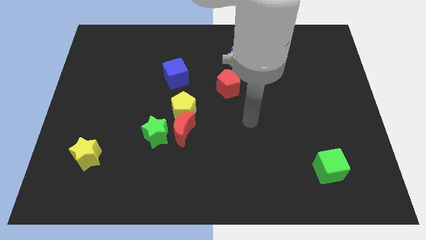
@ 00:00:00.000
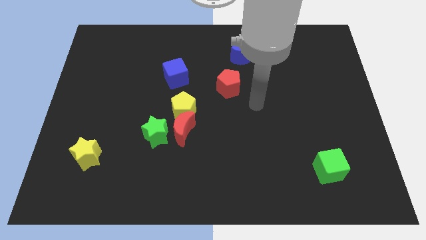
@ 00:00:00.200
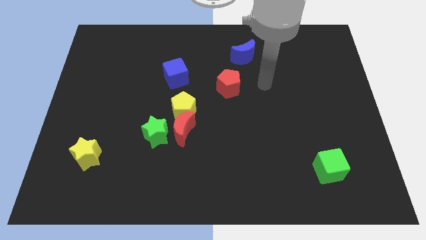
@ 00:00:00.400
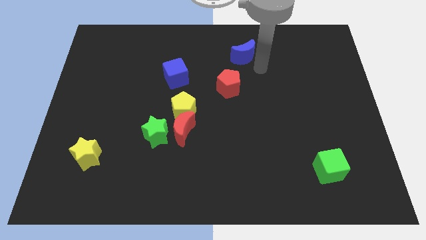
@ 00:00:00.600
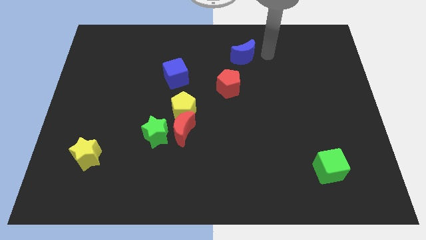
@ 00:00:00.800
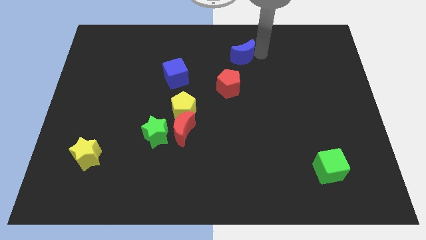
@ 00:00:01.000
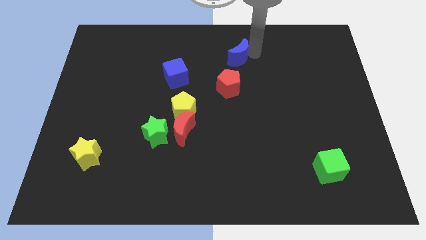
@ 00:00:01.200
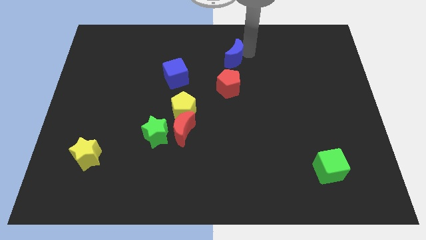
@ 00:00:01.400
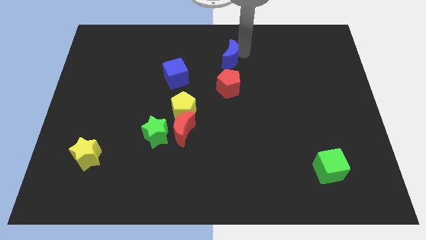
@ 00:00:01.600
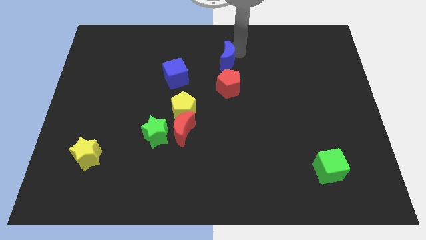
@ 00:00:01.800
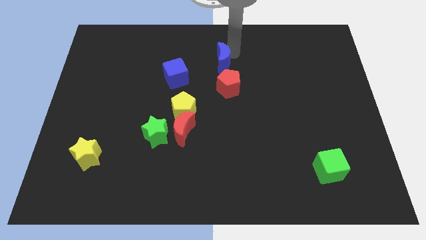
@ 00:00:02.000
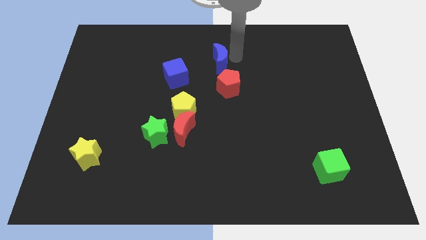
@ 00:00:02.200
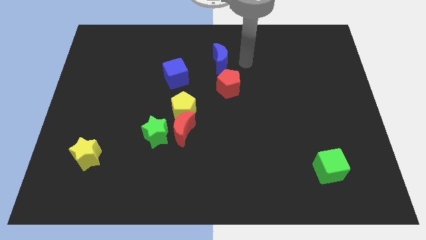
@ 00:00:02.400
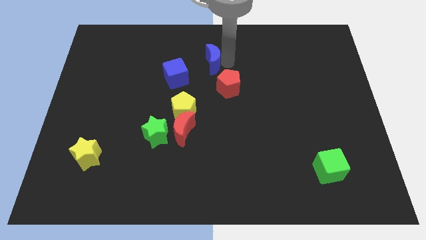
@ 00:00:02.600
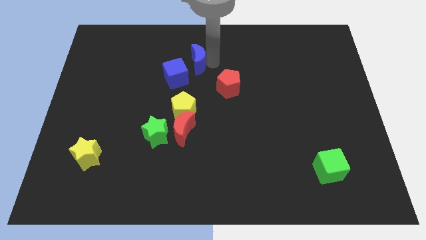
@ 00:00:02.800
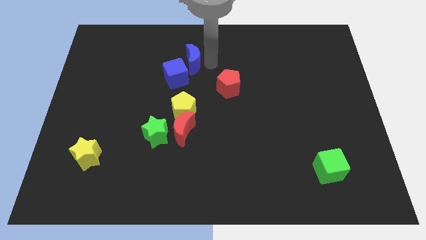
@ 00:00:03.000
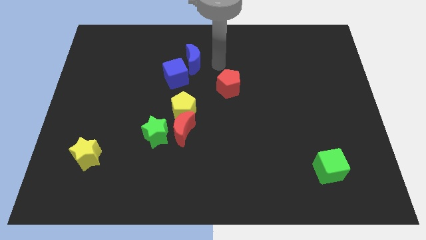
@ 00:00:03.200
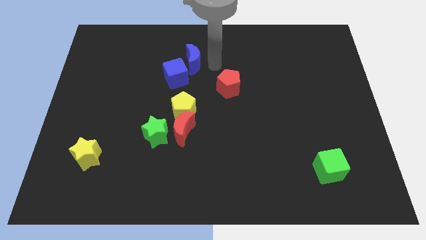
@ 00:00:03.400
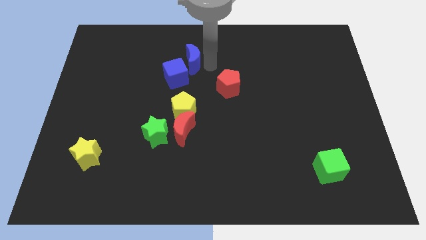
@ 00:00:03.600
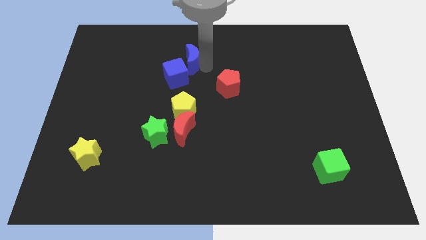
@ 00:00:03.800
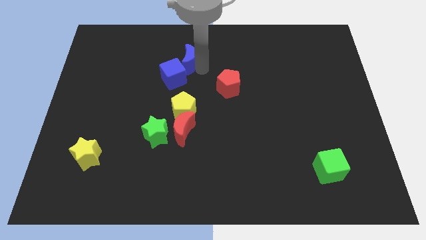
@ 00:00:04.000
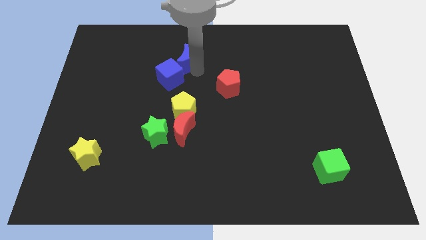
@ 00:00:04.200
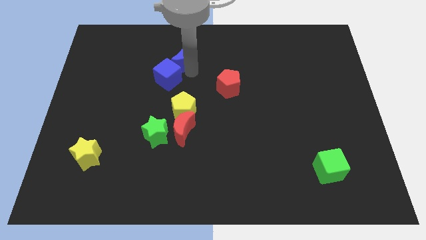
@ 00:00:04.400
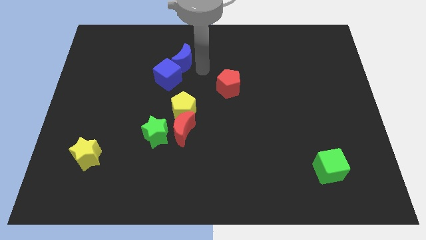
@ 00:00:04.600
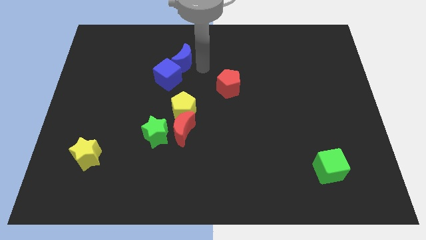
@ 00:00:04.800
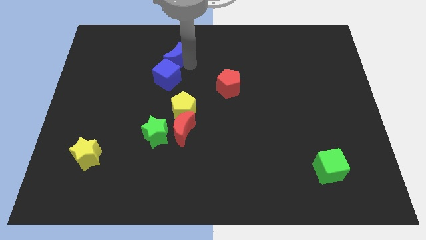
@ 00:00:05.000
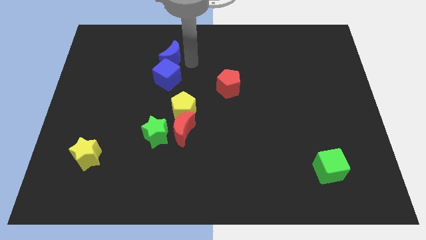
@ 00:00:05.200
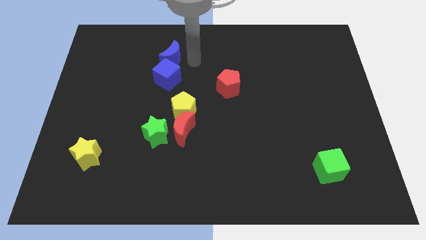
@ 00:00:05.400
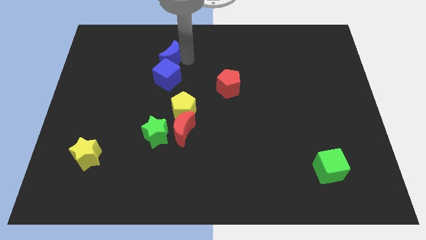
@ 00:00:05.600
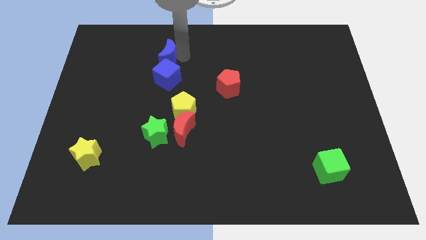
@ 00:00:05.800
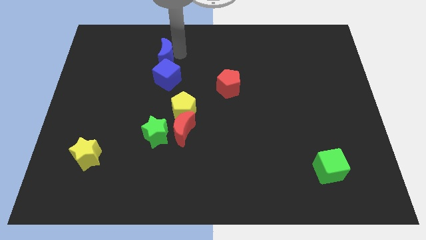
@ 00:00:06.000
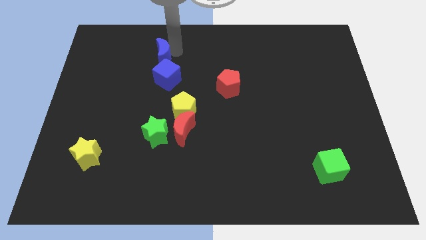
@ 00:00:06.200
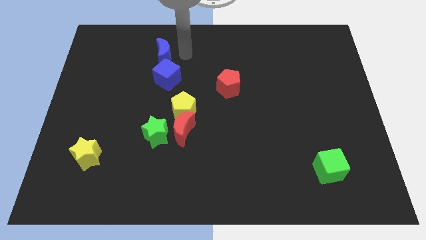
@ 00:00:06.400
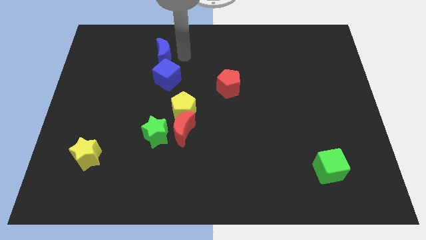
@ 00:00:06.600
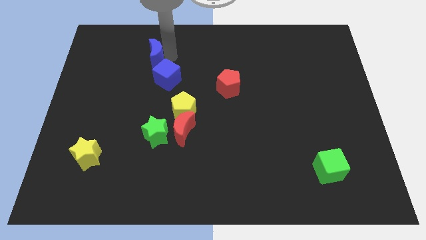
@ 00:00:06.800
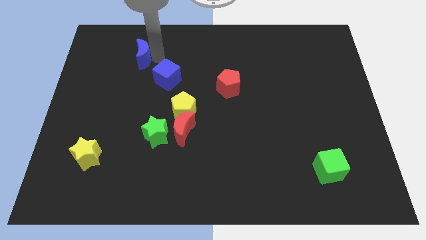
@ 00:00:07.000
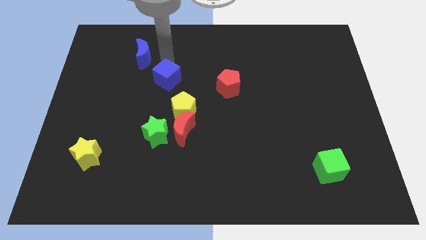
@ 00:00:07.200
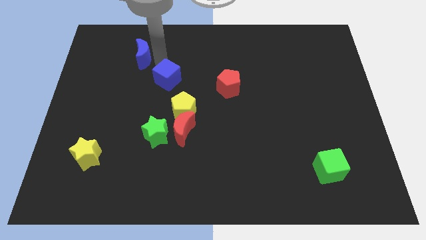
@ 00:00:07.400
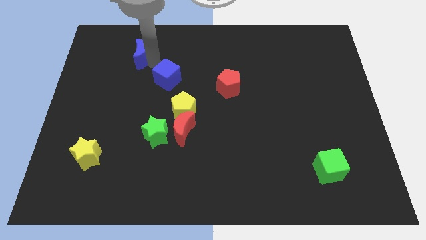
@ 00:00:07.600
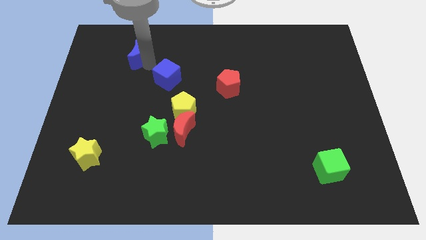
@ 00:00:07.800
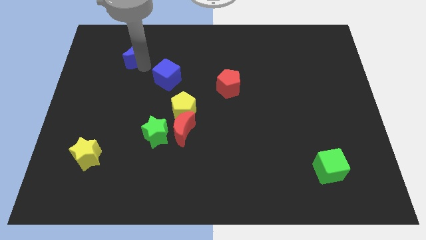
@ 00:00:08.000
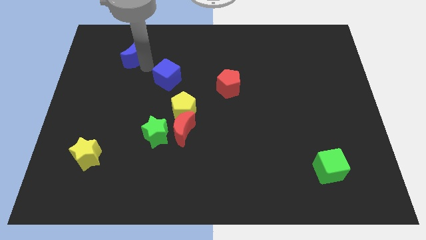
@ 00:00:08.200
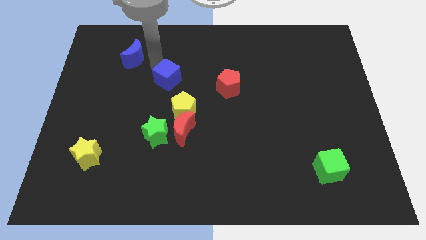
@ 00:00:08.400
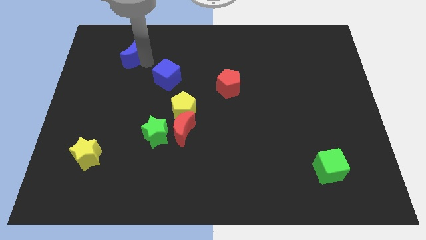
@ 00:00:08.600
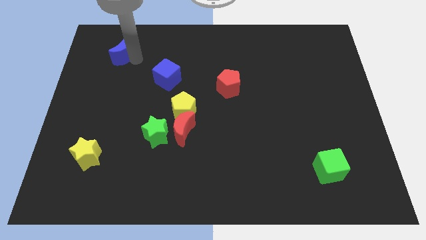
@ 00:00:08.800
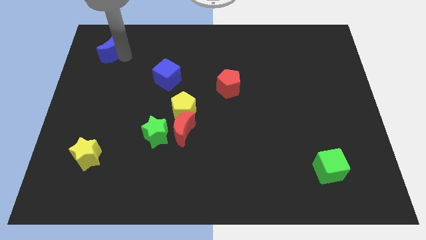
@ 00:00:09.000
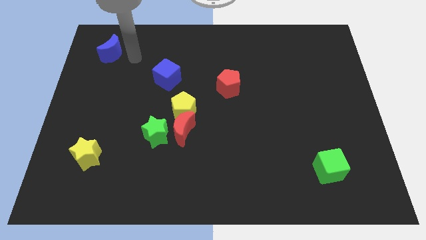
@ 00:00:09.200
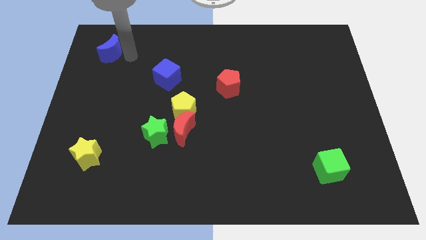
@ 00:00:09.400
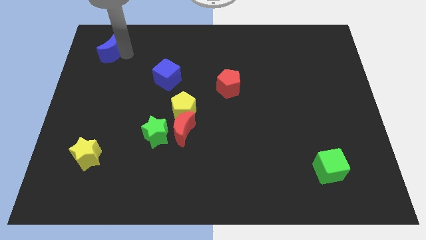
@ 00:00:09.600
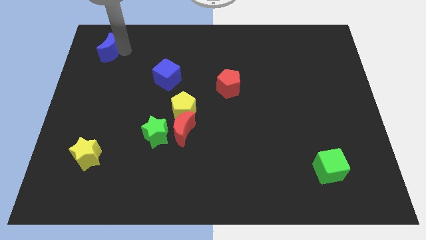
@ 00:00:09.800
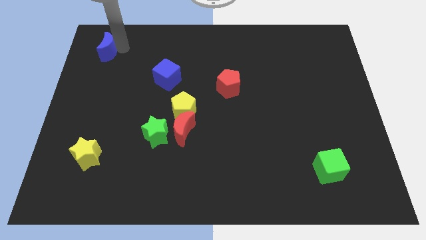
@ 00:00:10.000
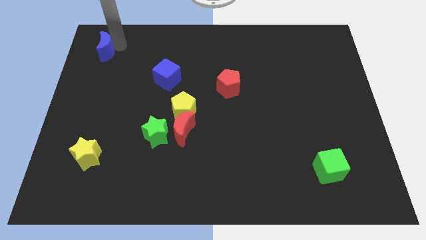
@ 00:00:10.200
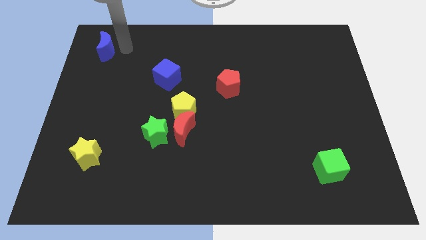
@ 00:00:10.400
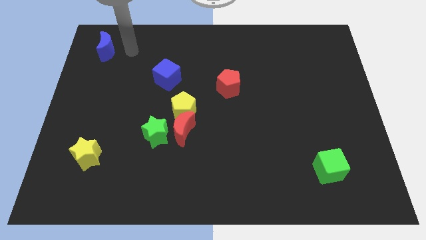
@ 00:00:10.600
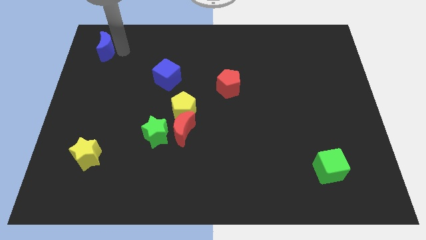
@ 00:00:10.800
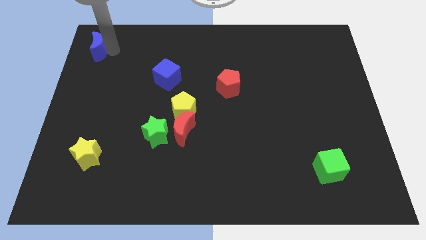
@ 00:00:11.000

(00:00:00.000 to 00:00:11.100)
push the blue moon to the top left of the board
